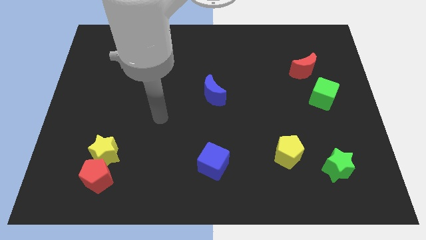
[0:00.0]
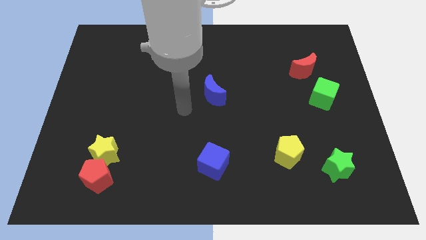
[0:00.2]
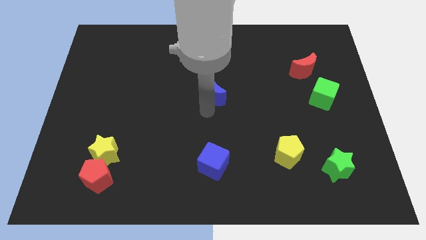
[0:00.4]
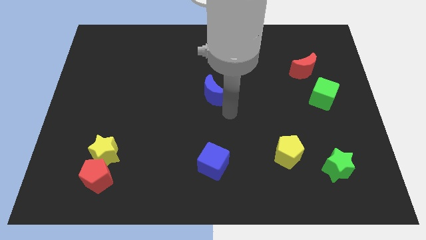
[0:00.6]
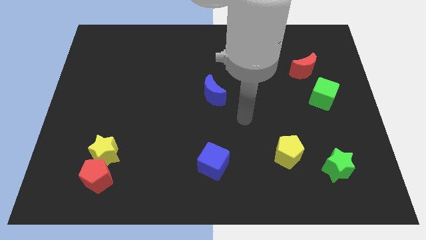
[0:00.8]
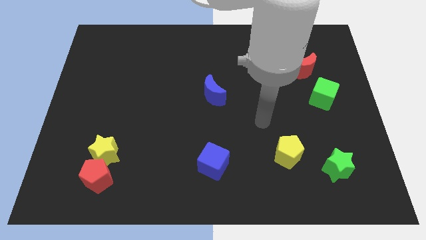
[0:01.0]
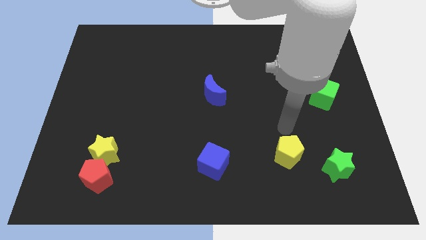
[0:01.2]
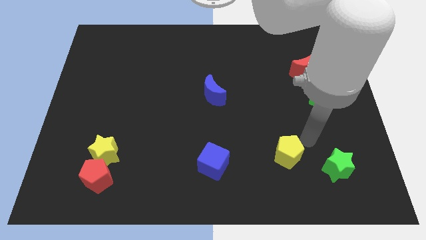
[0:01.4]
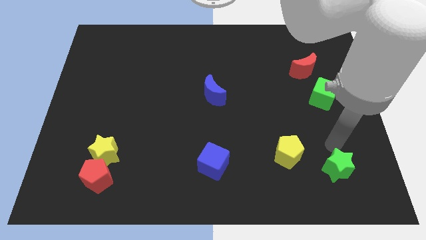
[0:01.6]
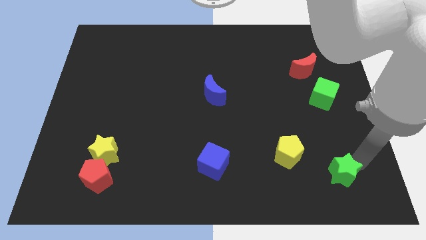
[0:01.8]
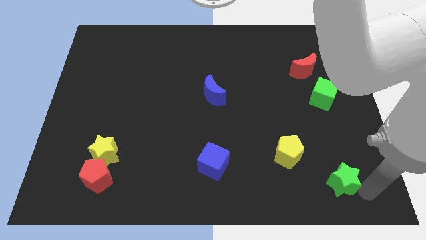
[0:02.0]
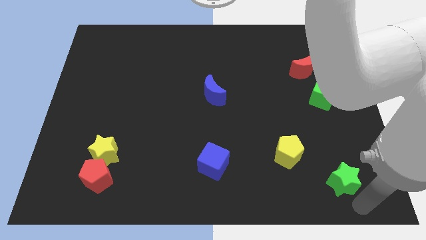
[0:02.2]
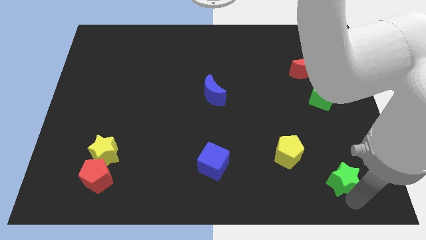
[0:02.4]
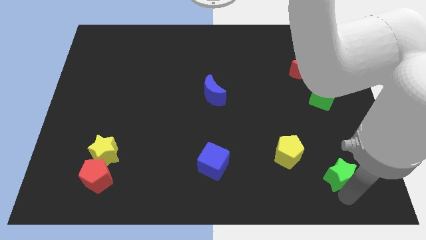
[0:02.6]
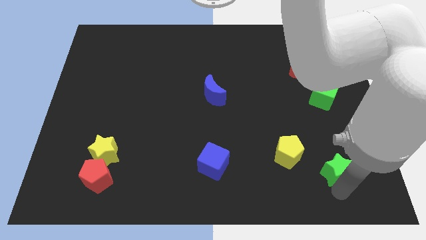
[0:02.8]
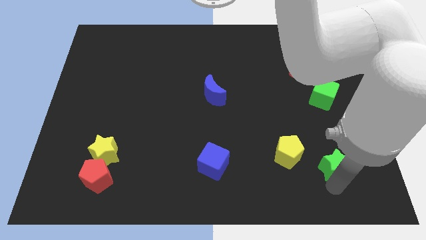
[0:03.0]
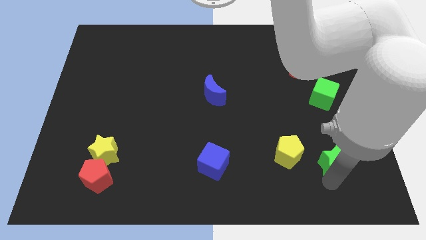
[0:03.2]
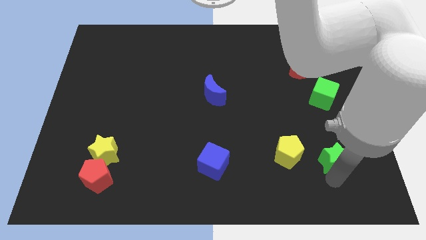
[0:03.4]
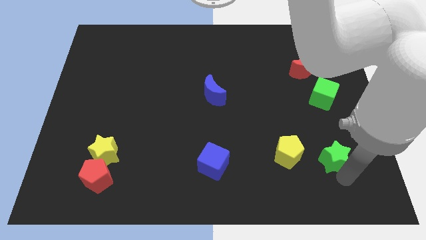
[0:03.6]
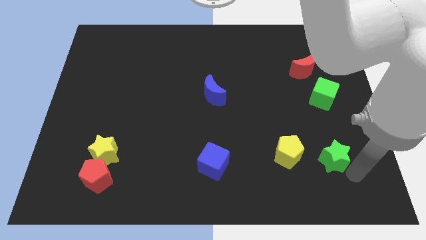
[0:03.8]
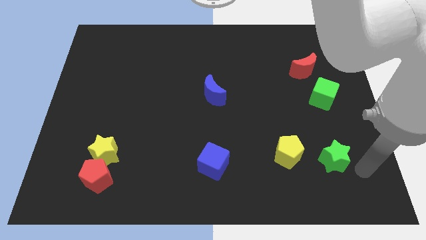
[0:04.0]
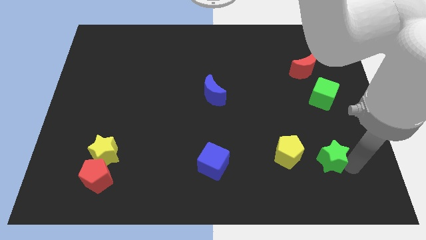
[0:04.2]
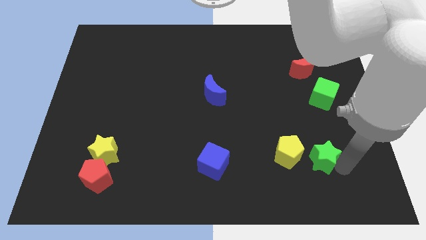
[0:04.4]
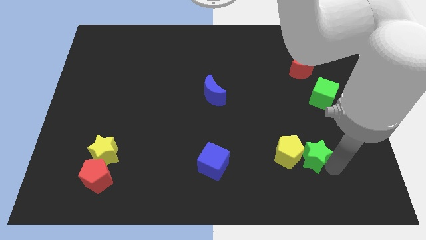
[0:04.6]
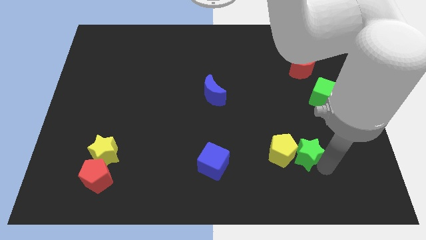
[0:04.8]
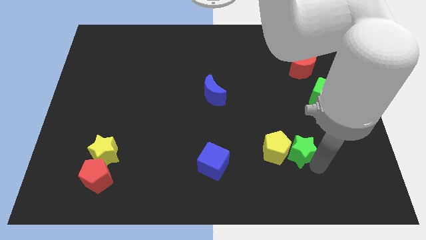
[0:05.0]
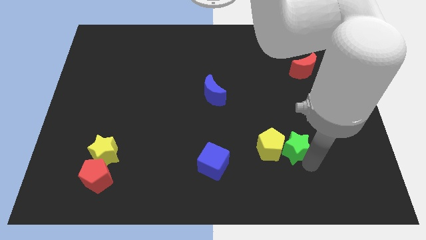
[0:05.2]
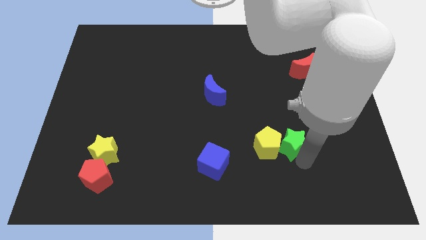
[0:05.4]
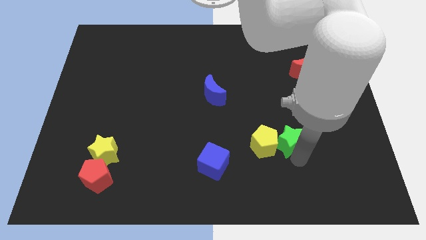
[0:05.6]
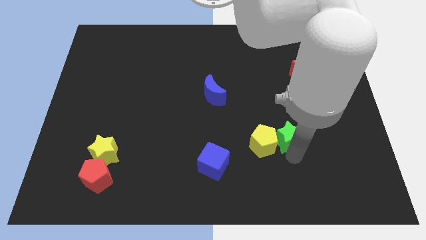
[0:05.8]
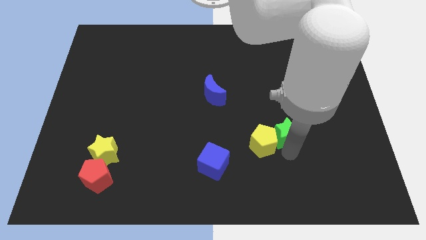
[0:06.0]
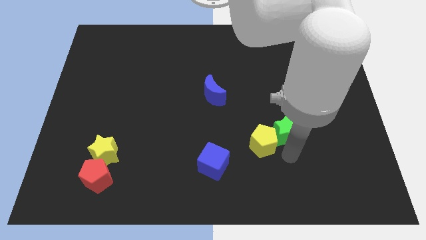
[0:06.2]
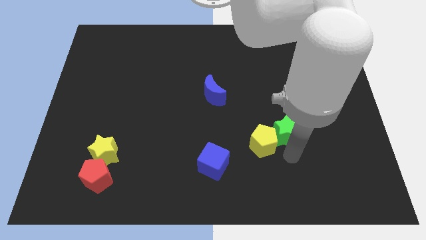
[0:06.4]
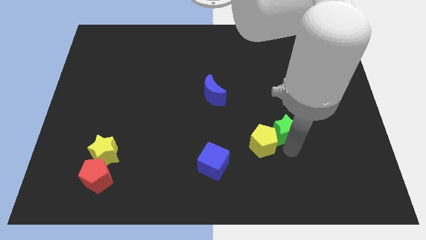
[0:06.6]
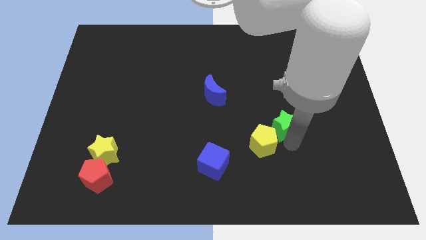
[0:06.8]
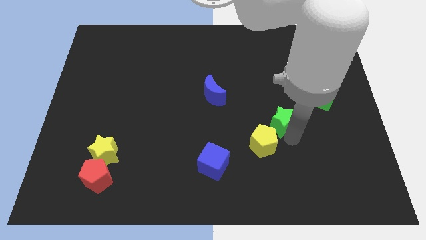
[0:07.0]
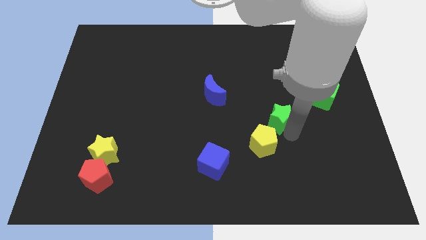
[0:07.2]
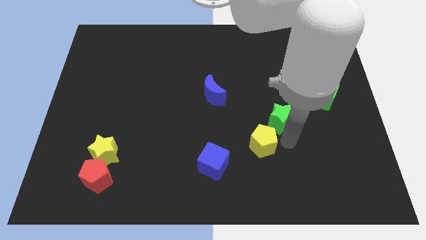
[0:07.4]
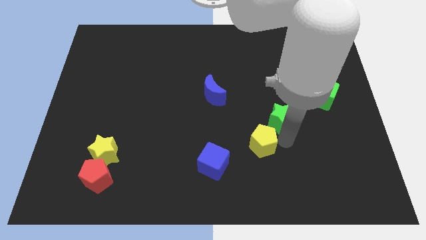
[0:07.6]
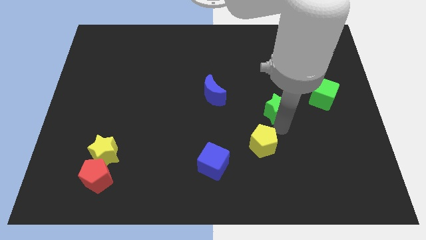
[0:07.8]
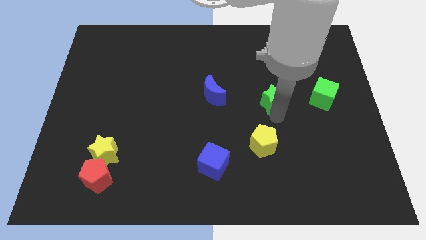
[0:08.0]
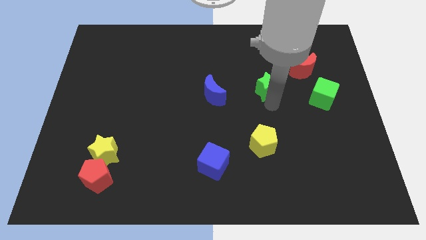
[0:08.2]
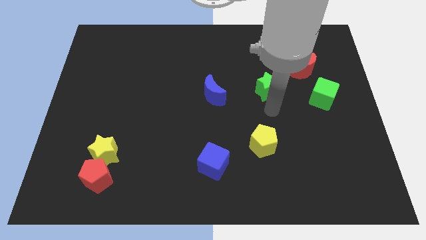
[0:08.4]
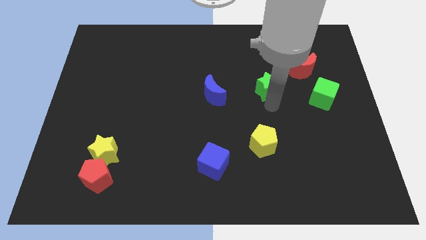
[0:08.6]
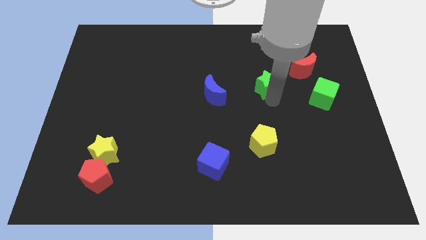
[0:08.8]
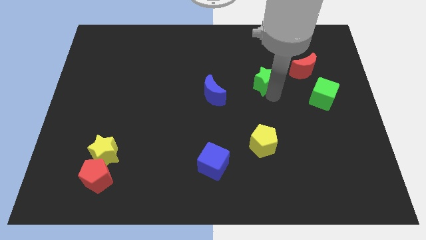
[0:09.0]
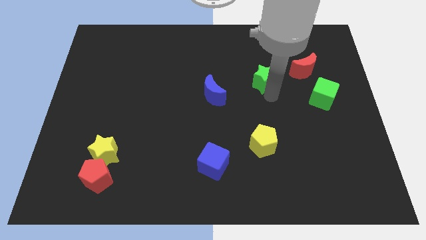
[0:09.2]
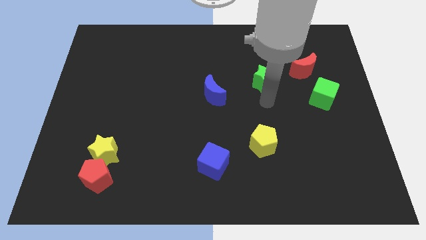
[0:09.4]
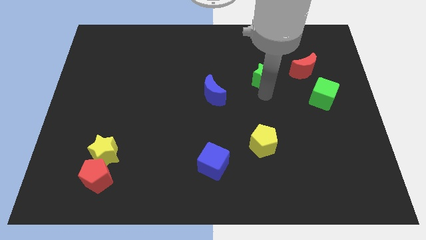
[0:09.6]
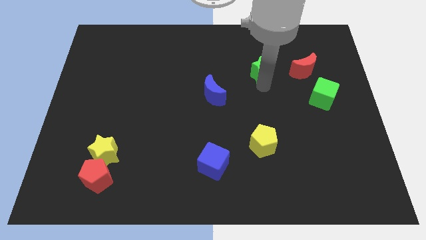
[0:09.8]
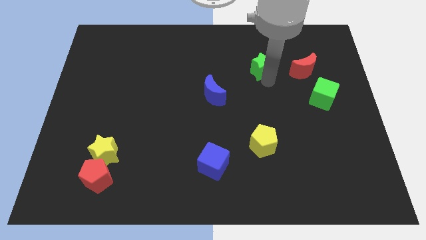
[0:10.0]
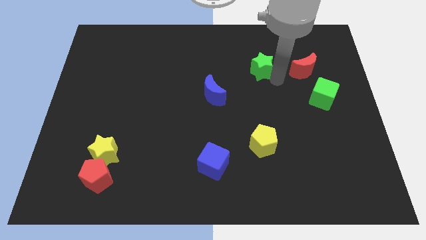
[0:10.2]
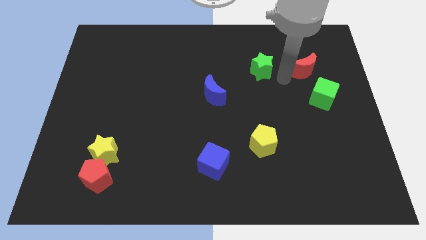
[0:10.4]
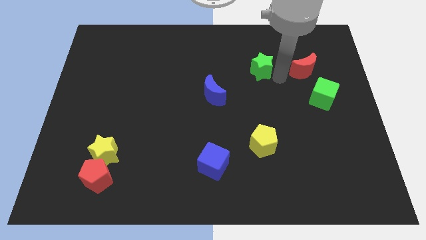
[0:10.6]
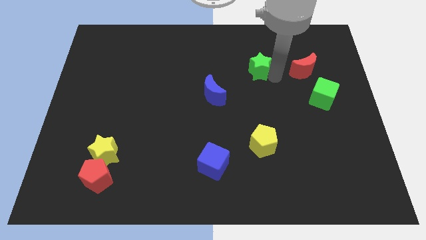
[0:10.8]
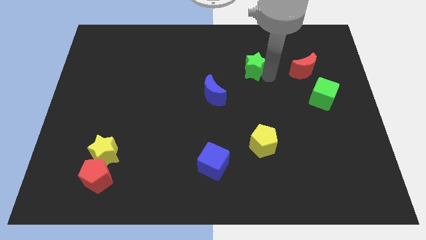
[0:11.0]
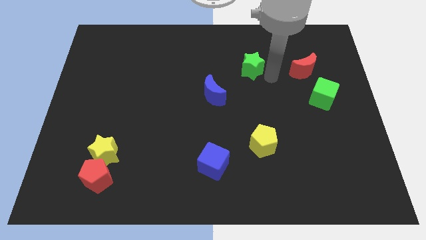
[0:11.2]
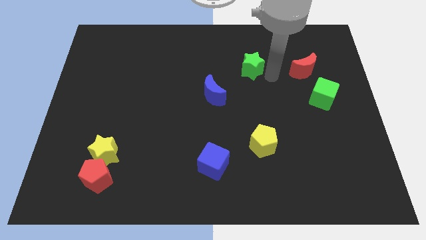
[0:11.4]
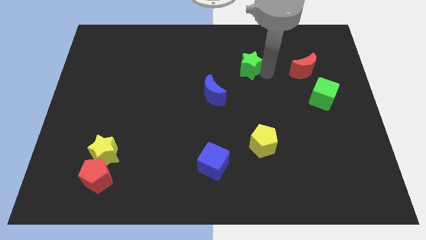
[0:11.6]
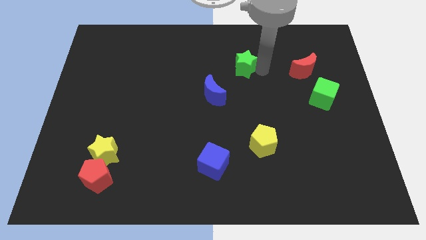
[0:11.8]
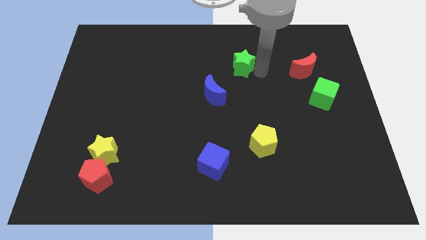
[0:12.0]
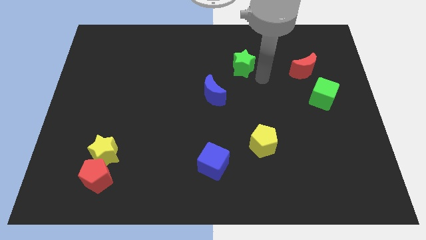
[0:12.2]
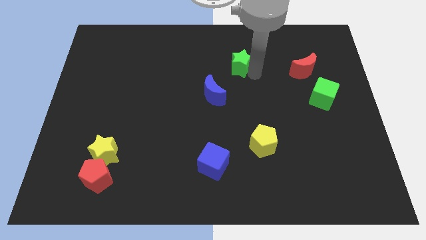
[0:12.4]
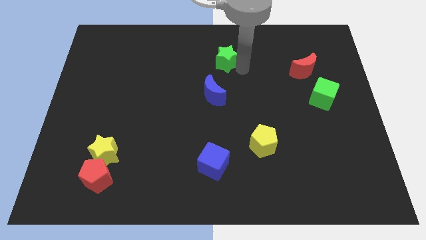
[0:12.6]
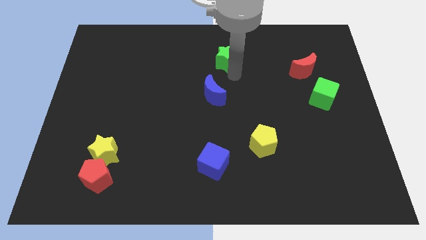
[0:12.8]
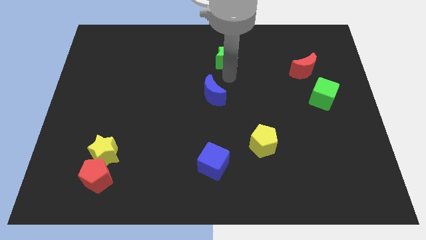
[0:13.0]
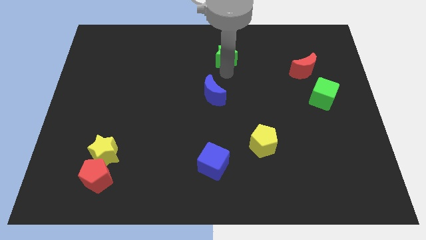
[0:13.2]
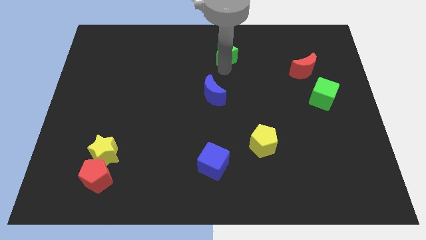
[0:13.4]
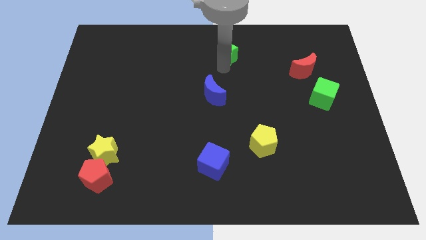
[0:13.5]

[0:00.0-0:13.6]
move the green star to the top side
